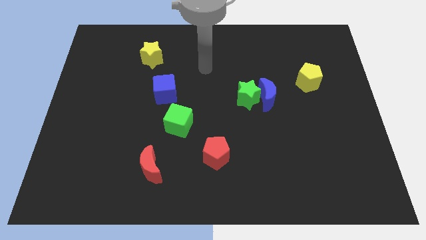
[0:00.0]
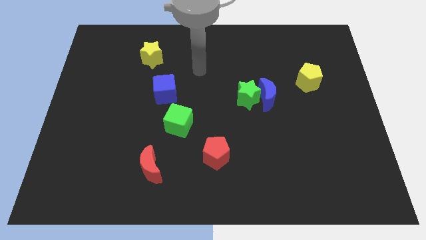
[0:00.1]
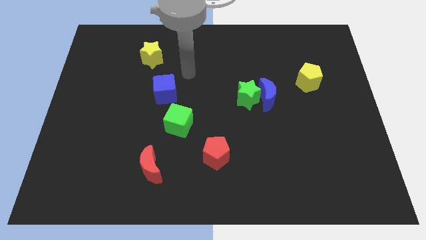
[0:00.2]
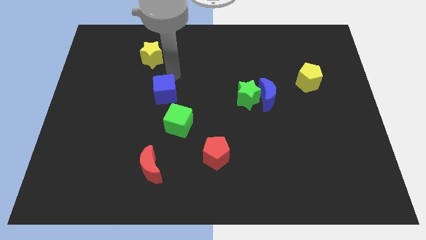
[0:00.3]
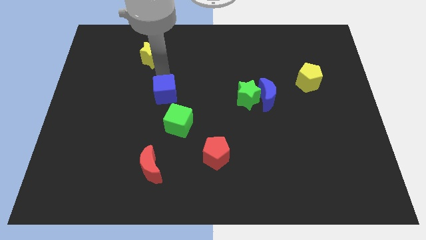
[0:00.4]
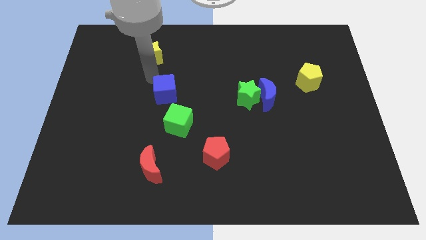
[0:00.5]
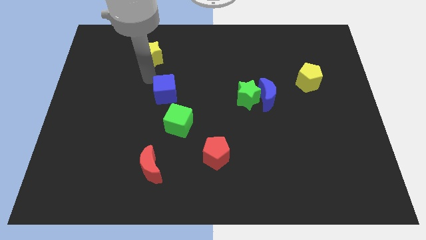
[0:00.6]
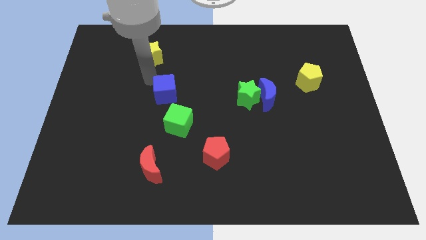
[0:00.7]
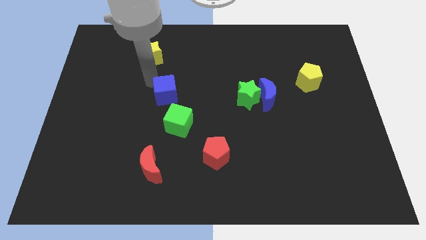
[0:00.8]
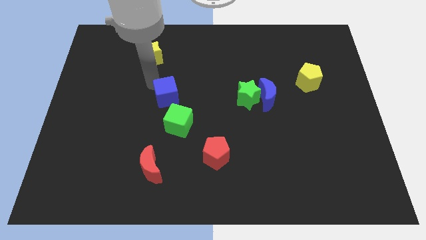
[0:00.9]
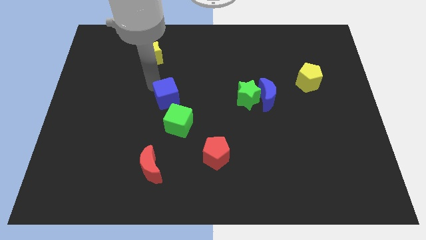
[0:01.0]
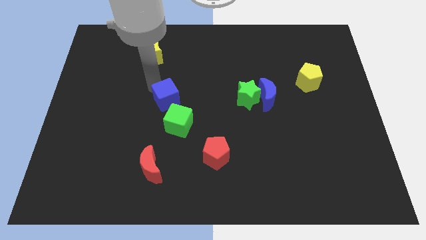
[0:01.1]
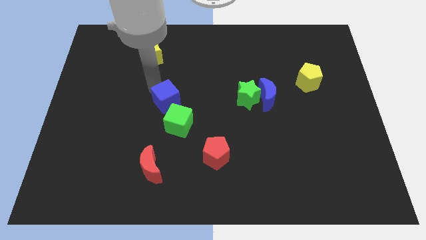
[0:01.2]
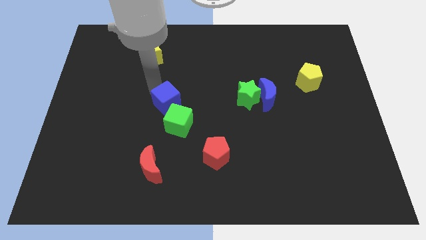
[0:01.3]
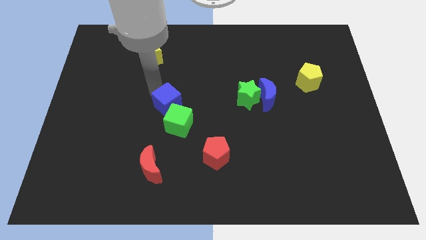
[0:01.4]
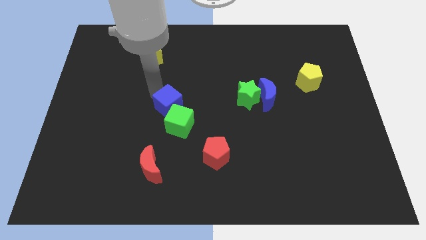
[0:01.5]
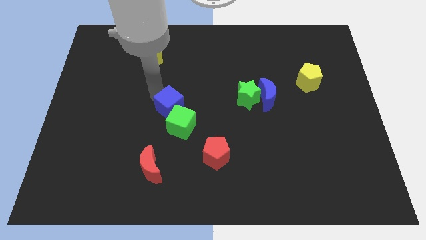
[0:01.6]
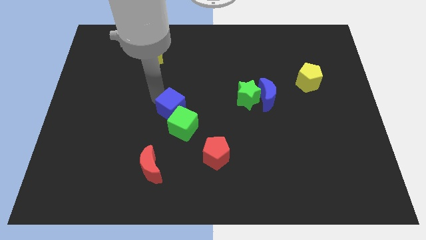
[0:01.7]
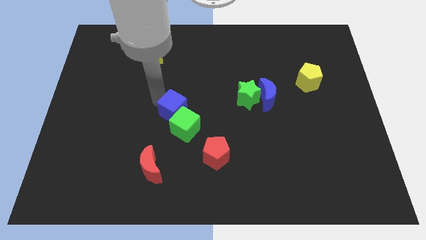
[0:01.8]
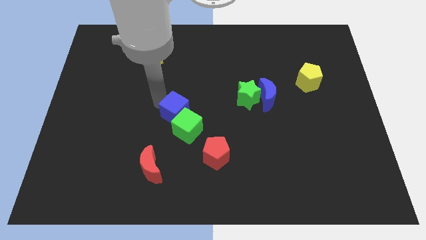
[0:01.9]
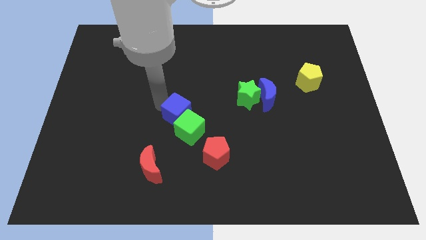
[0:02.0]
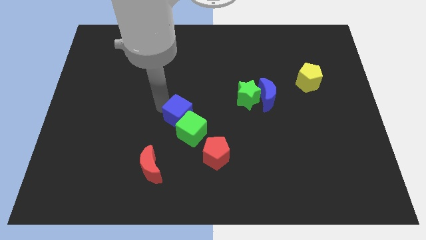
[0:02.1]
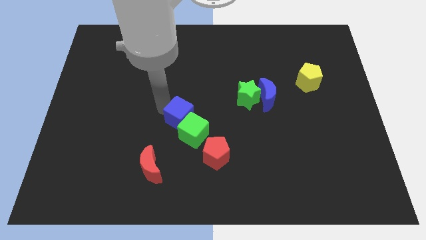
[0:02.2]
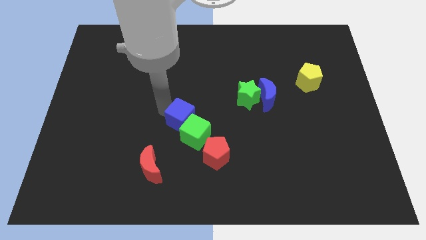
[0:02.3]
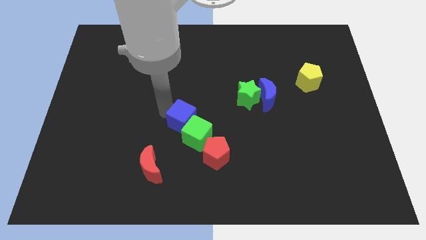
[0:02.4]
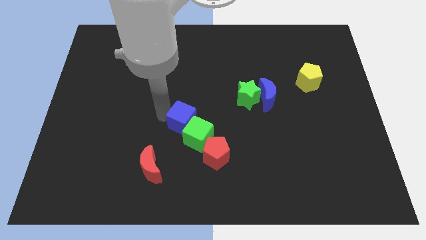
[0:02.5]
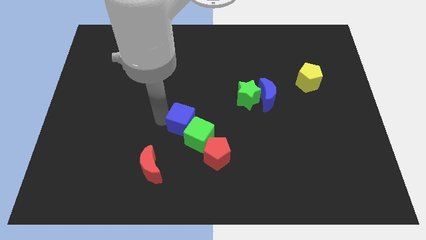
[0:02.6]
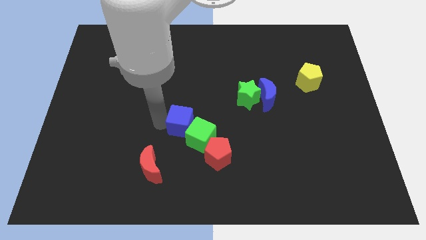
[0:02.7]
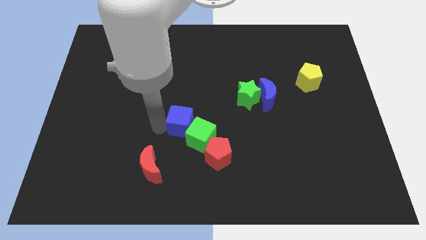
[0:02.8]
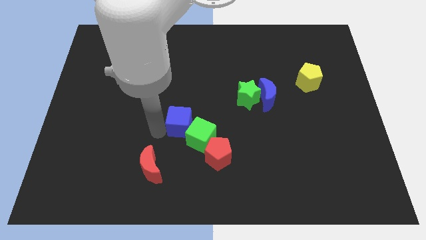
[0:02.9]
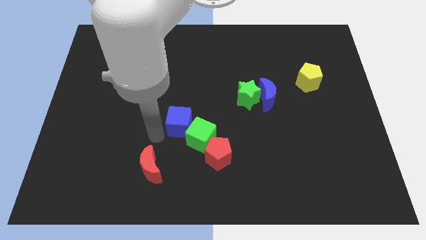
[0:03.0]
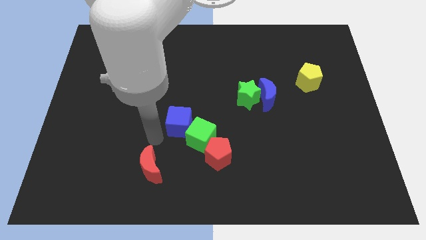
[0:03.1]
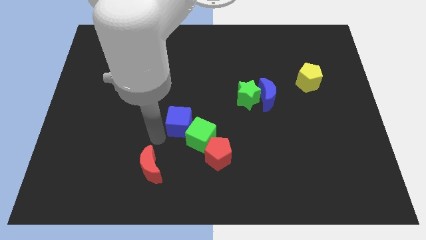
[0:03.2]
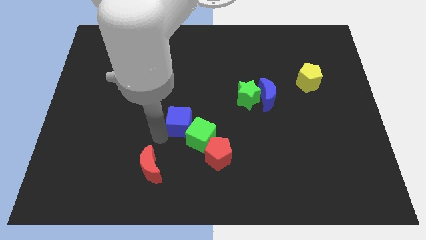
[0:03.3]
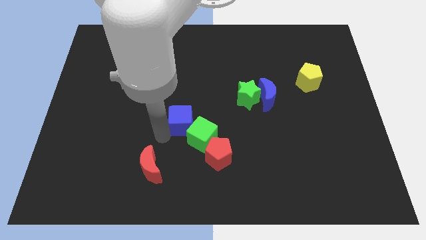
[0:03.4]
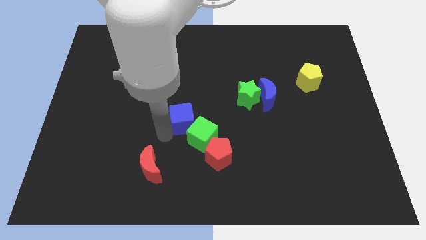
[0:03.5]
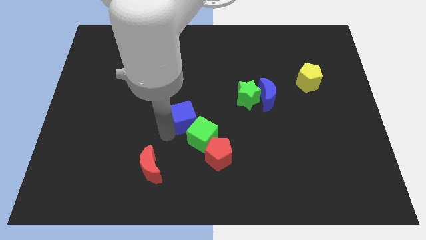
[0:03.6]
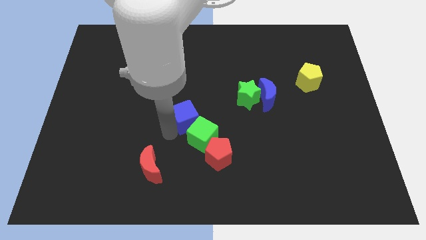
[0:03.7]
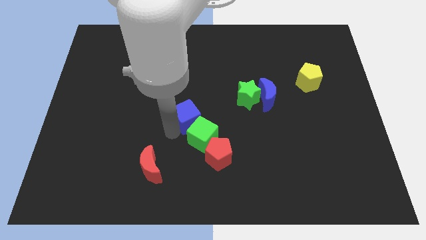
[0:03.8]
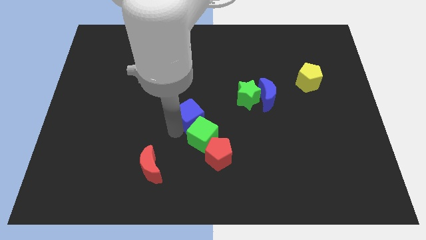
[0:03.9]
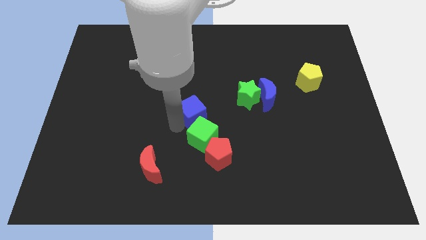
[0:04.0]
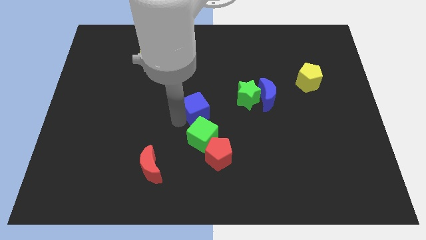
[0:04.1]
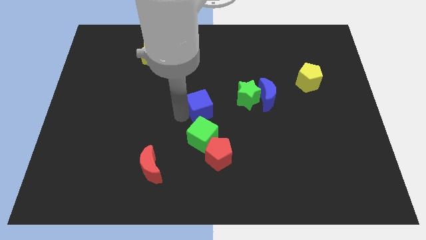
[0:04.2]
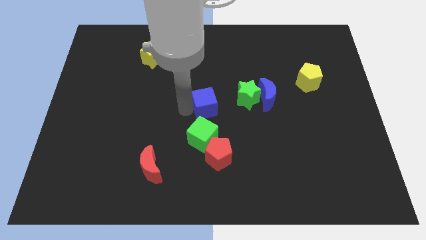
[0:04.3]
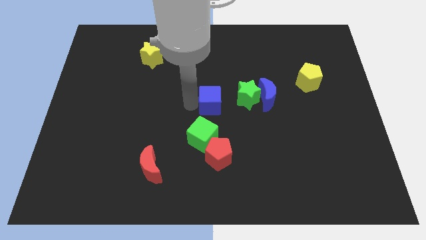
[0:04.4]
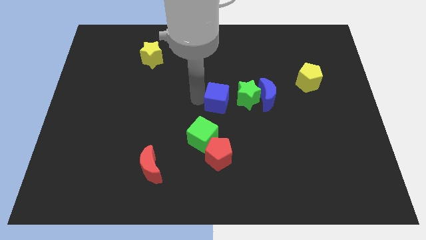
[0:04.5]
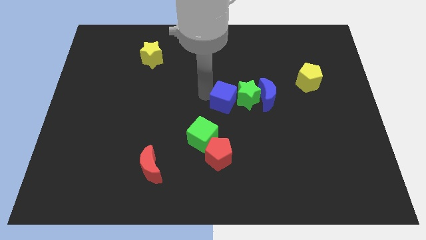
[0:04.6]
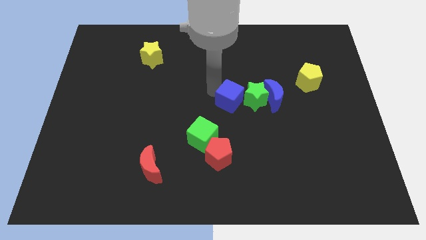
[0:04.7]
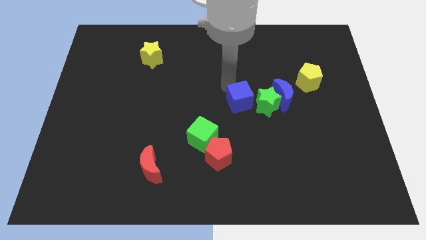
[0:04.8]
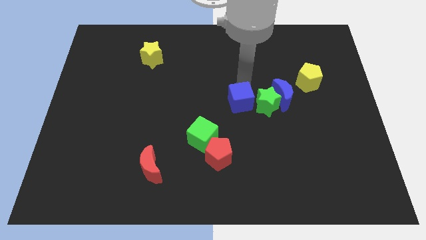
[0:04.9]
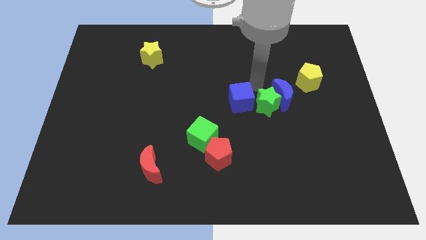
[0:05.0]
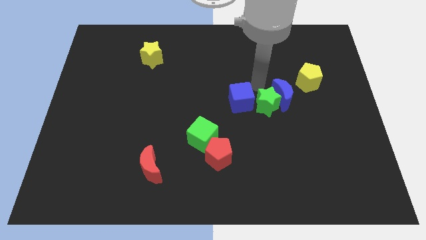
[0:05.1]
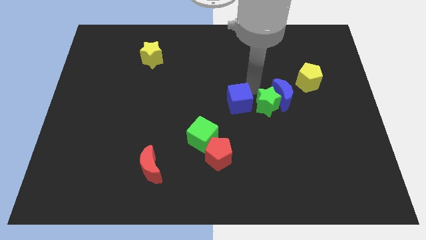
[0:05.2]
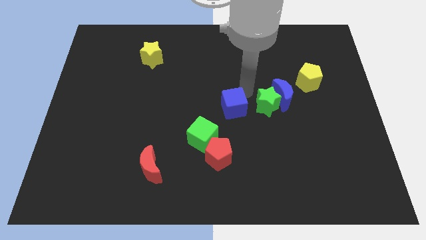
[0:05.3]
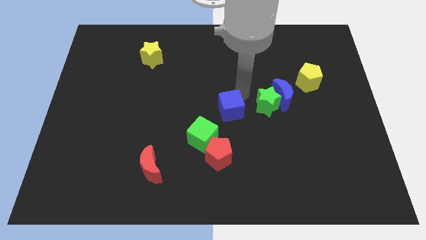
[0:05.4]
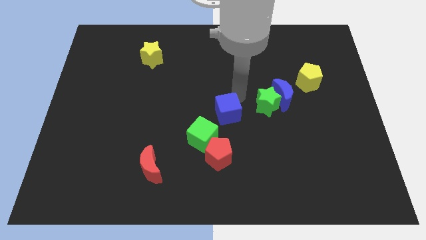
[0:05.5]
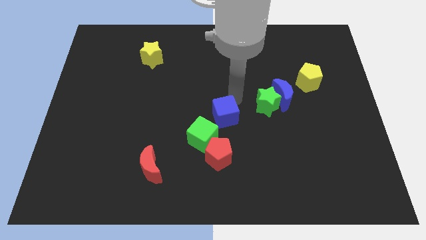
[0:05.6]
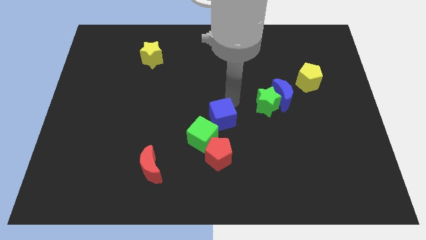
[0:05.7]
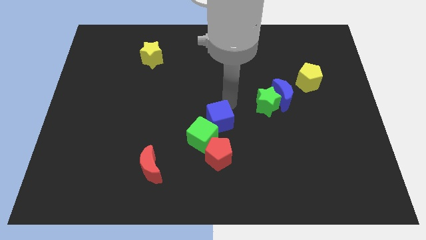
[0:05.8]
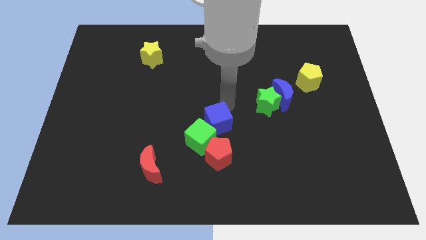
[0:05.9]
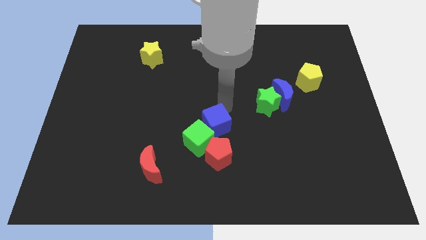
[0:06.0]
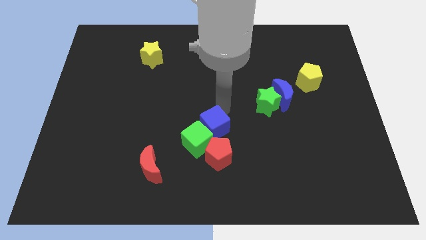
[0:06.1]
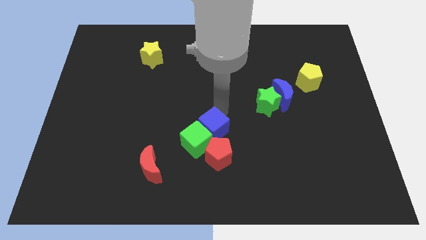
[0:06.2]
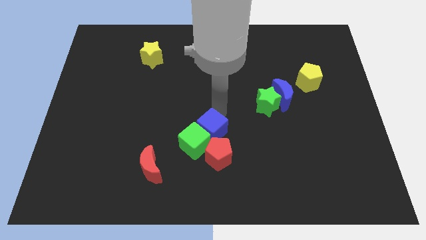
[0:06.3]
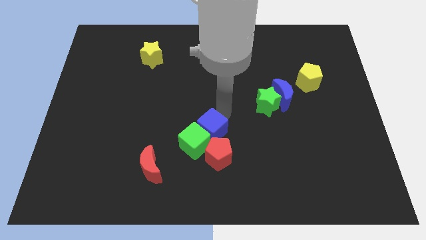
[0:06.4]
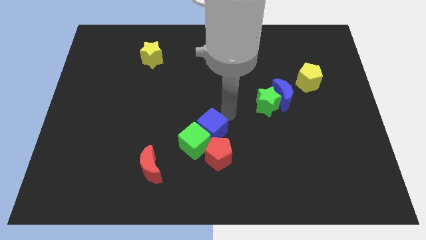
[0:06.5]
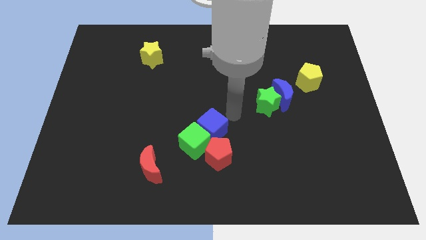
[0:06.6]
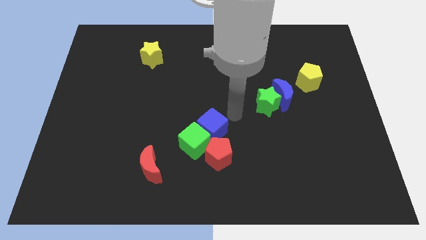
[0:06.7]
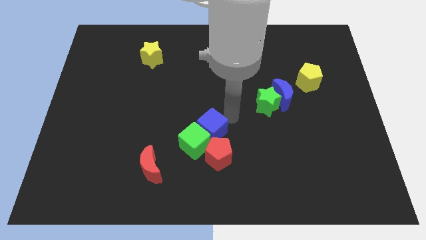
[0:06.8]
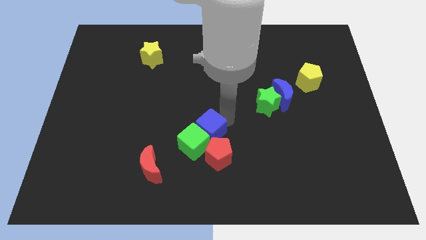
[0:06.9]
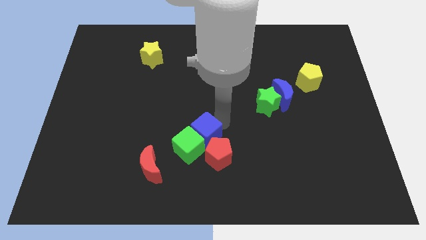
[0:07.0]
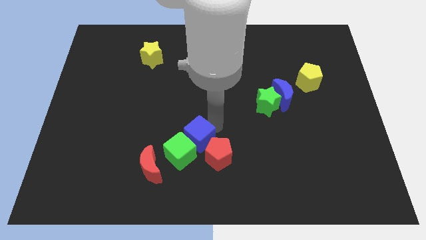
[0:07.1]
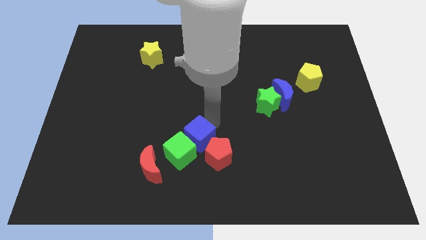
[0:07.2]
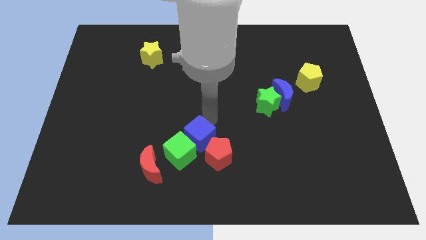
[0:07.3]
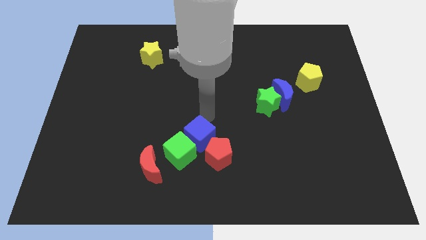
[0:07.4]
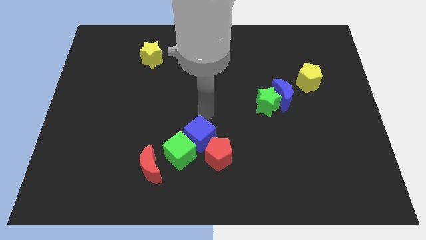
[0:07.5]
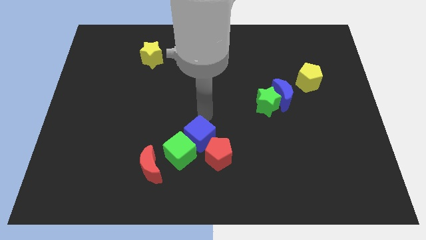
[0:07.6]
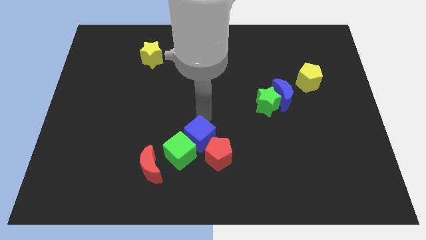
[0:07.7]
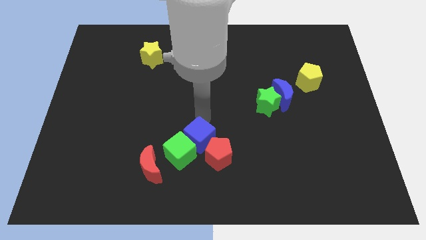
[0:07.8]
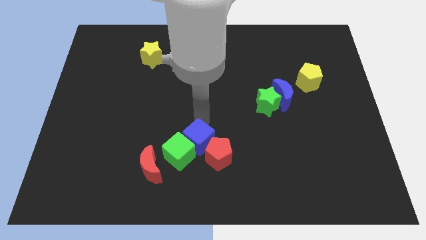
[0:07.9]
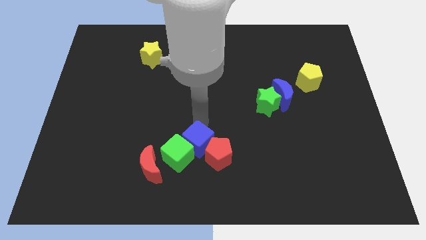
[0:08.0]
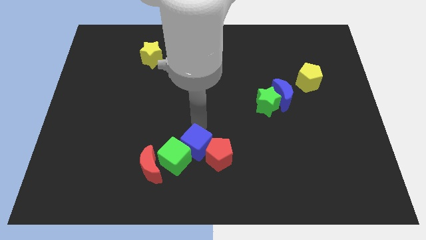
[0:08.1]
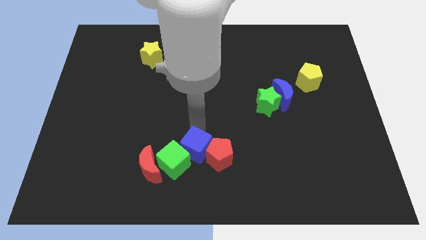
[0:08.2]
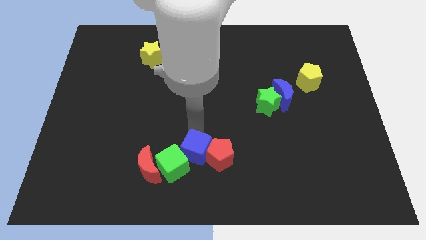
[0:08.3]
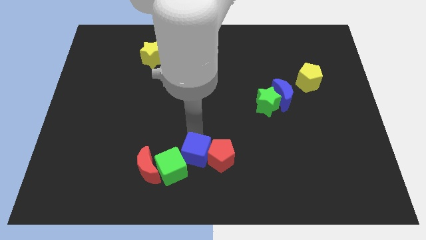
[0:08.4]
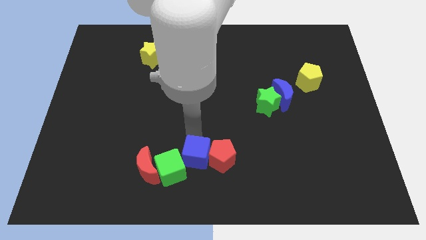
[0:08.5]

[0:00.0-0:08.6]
move the blue cube to the bottom side
